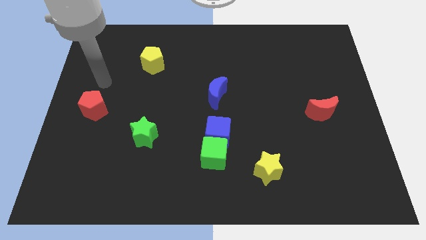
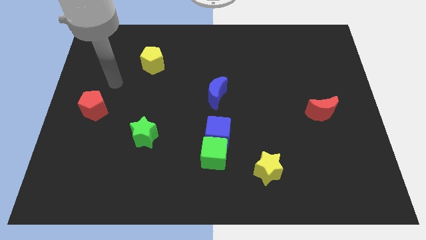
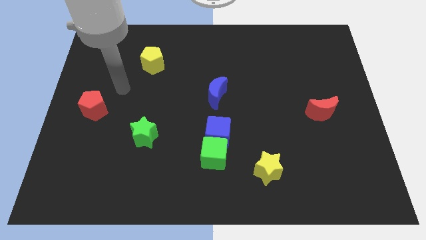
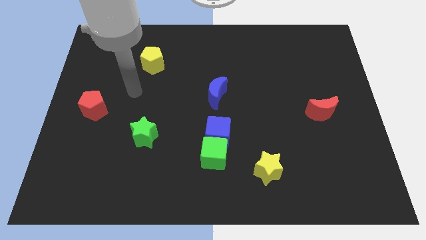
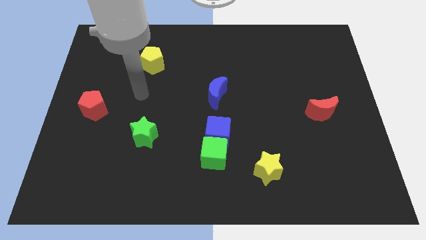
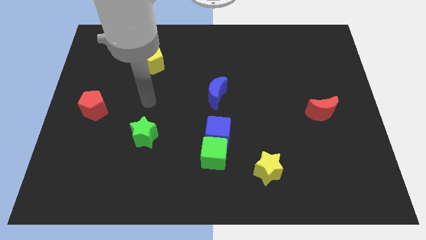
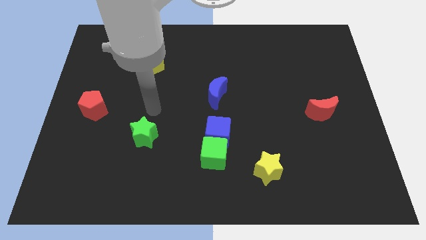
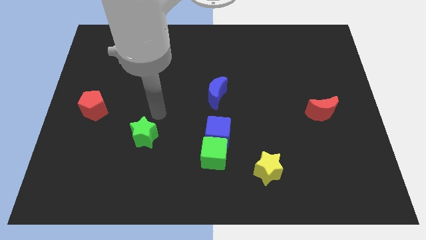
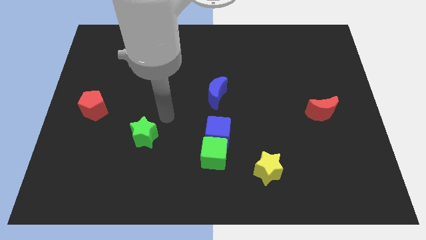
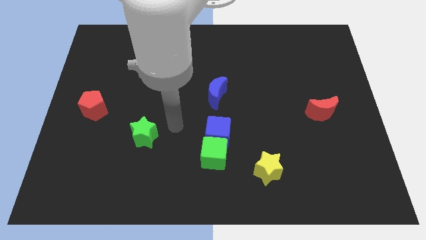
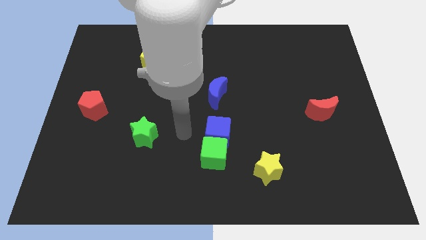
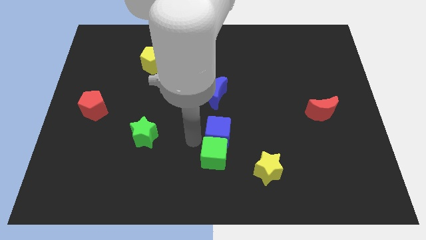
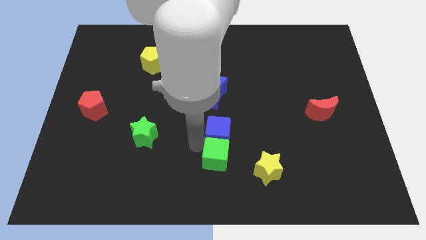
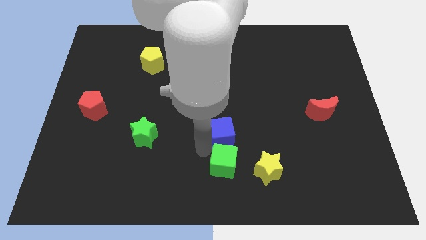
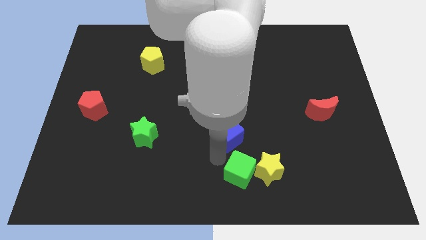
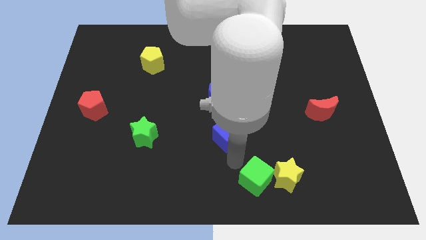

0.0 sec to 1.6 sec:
move the blue cube away from the green cube

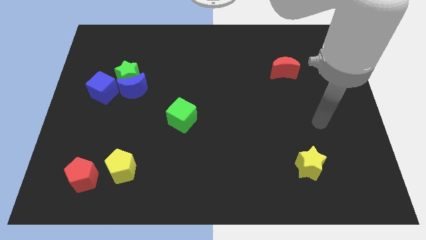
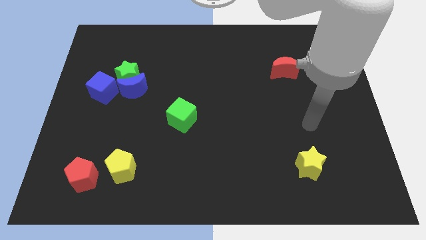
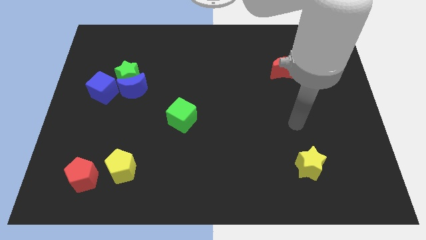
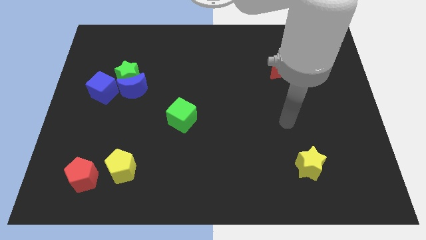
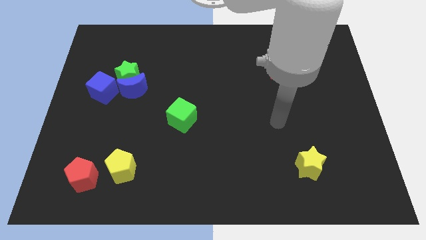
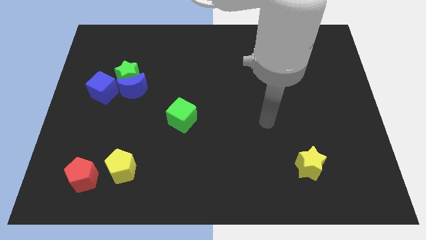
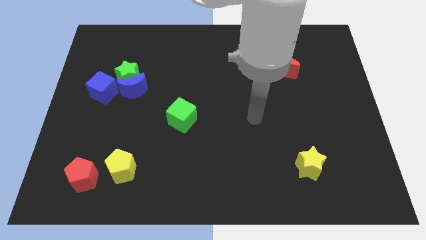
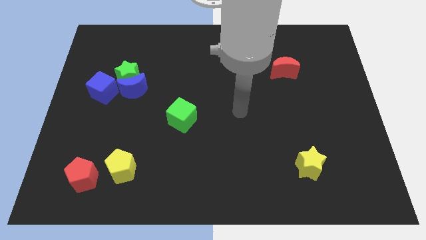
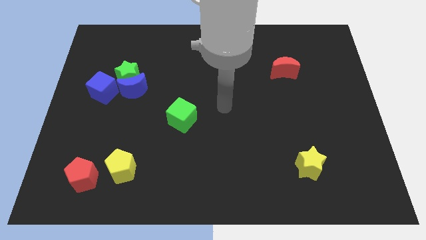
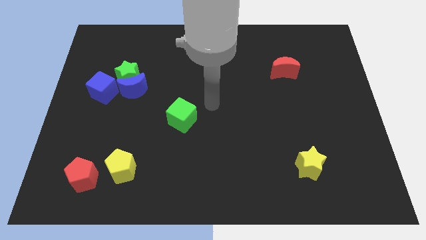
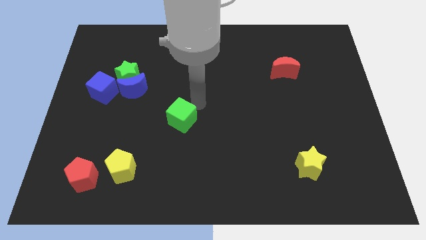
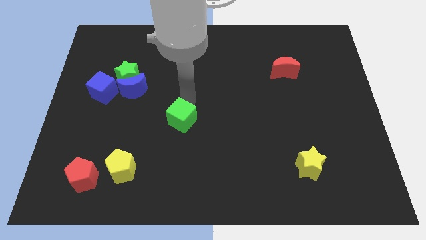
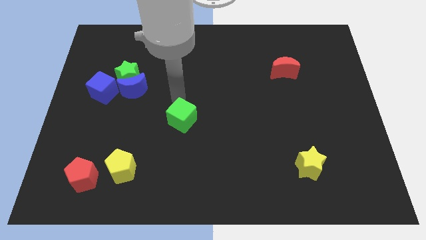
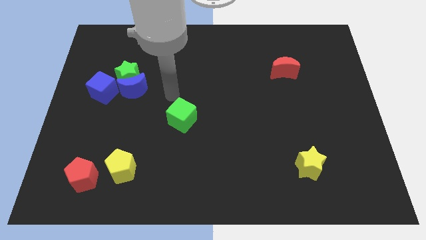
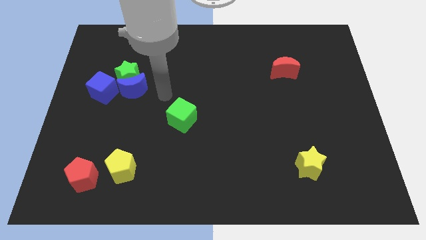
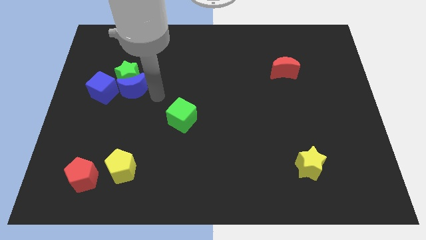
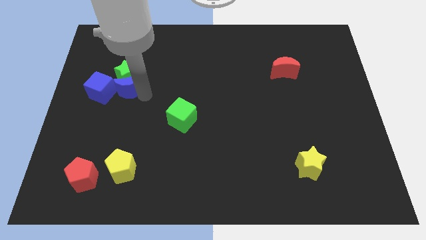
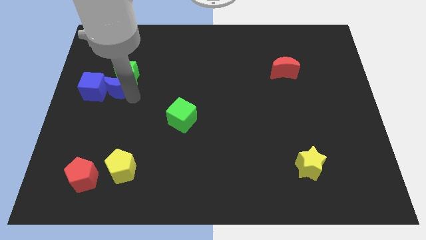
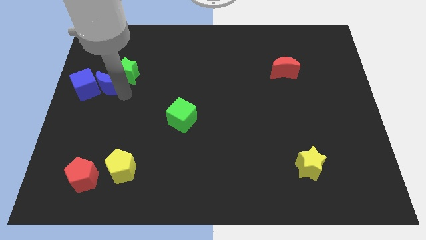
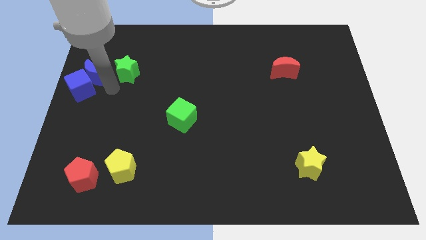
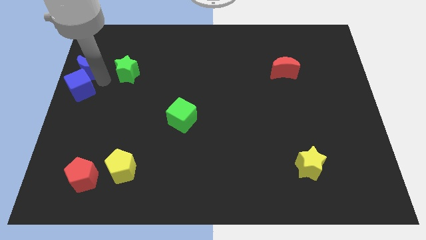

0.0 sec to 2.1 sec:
separate the green star from the blue moon and blue cube

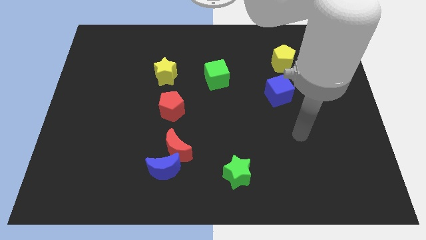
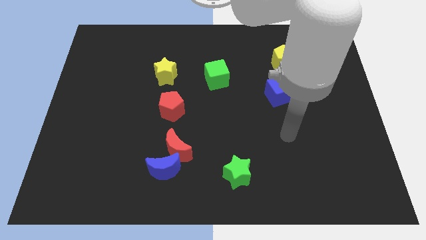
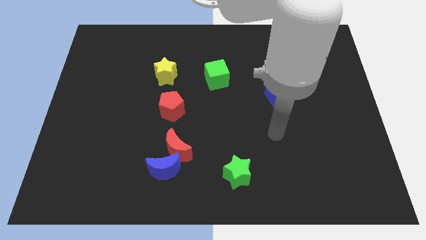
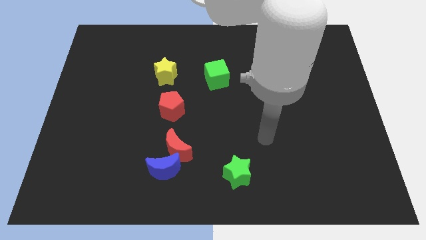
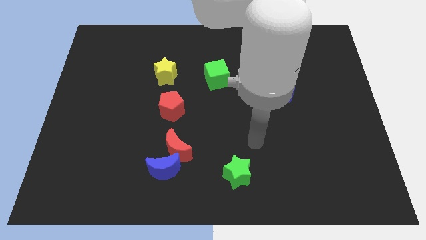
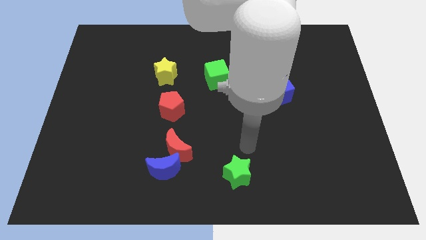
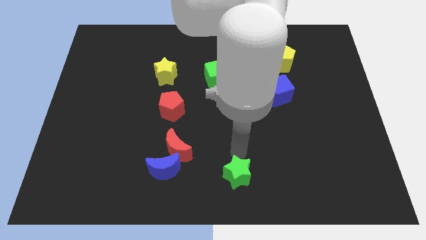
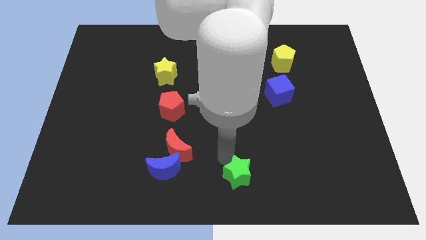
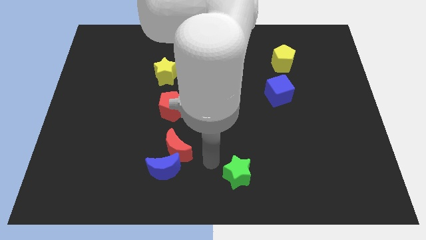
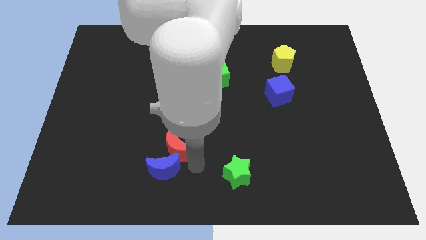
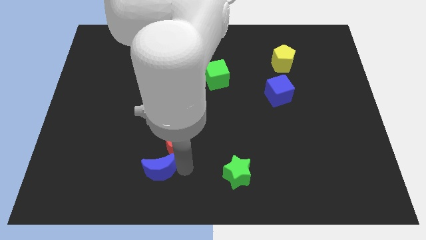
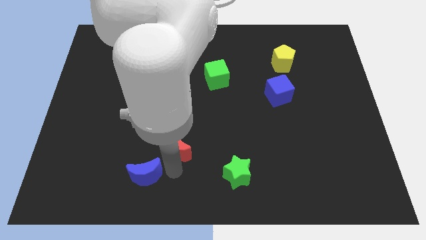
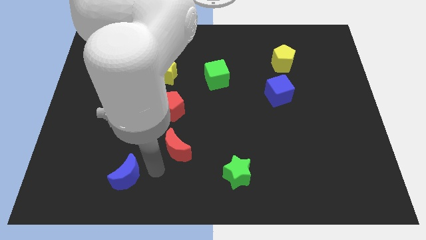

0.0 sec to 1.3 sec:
separate the red moon from the blue moon

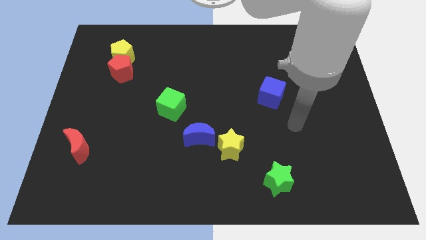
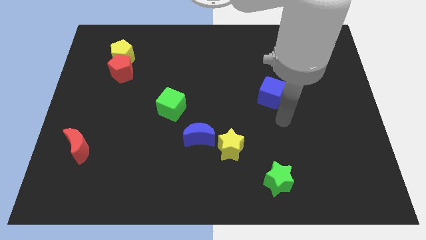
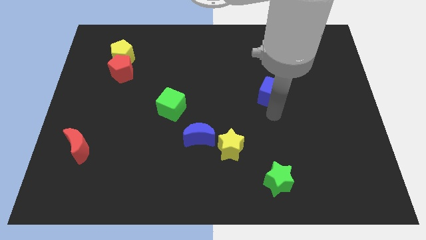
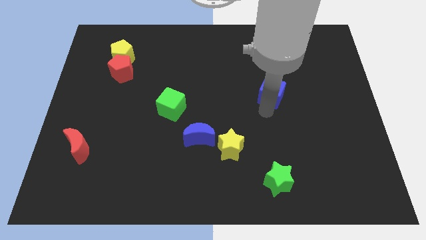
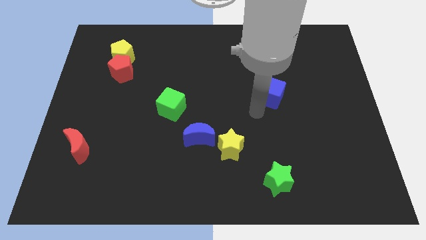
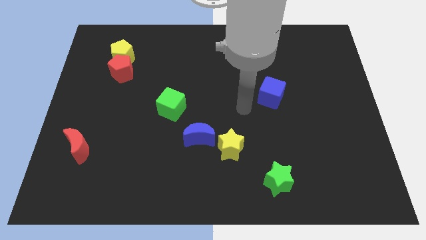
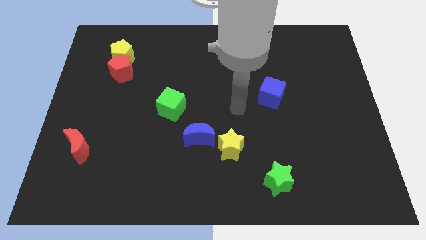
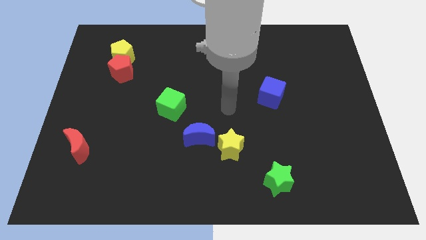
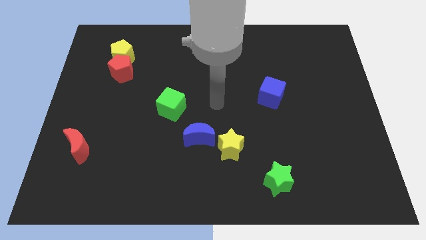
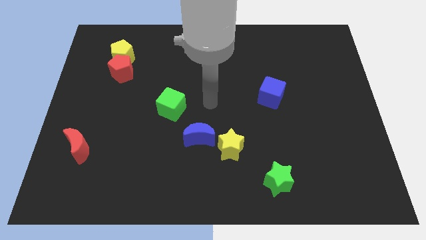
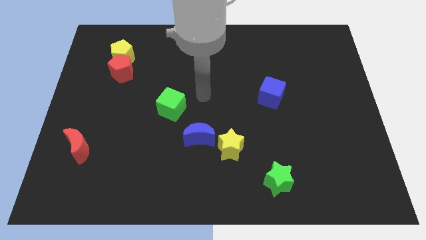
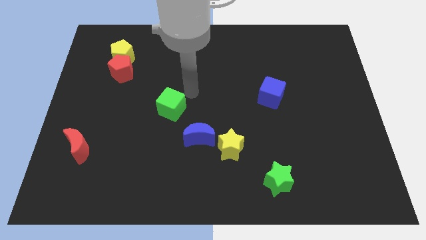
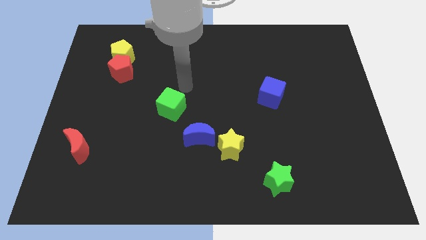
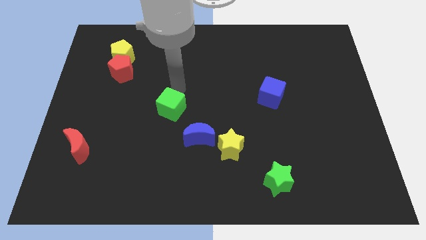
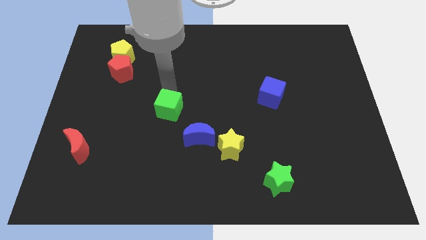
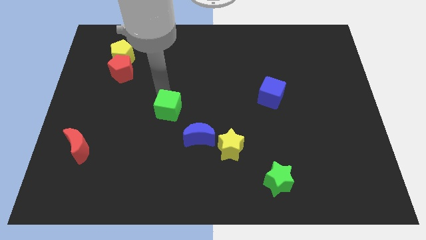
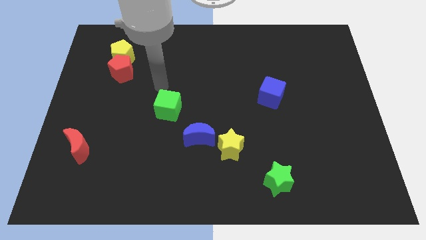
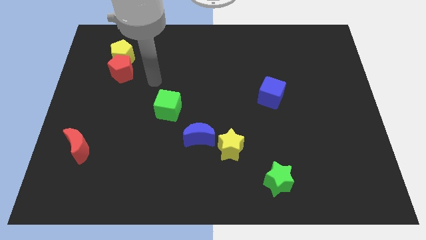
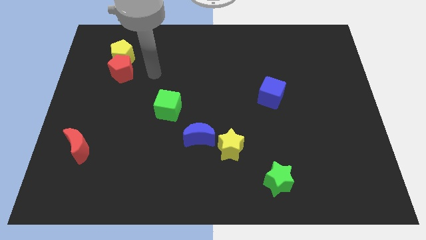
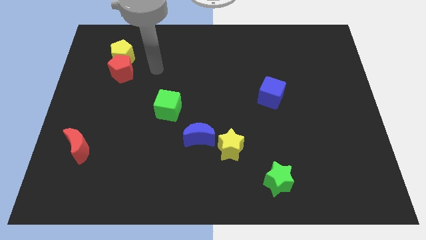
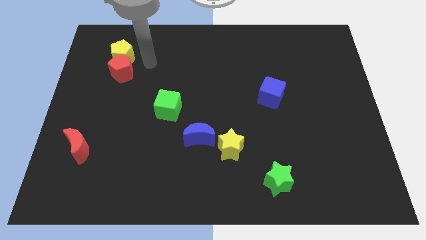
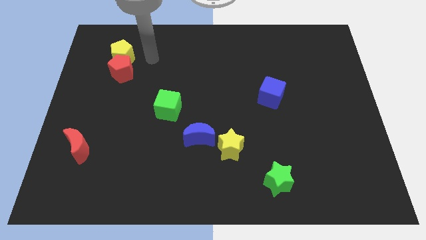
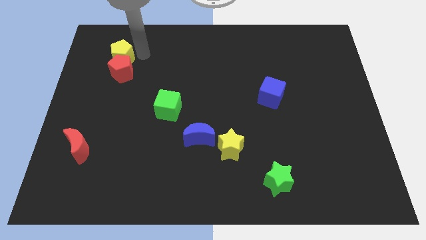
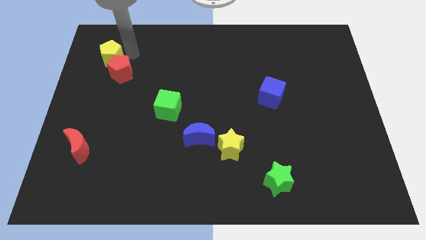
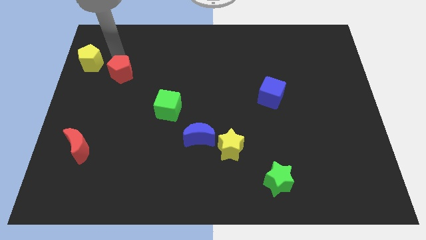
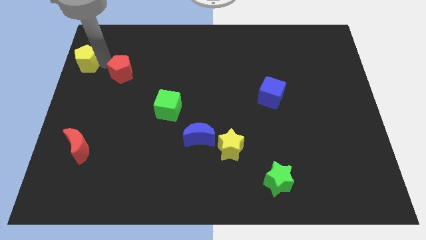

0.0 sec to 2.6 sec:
pull the red pentagon apart from the yellow pentagon

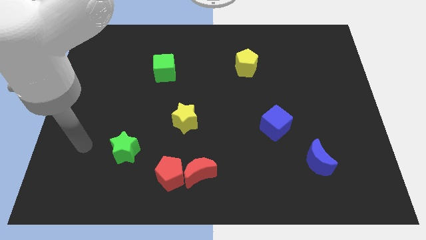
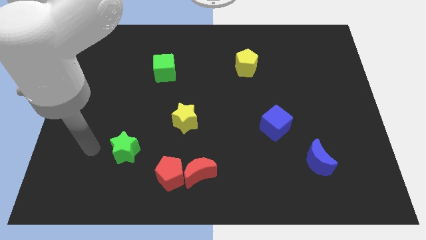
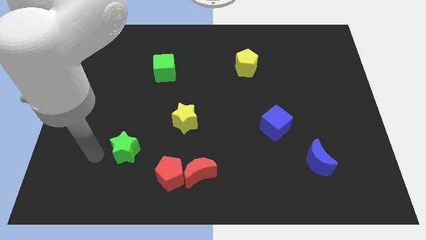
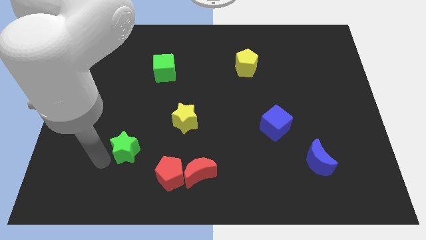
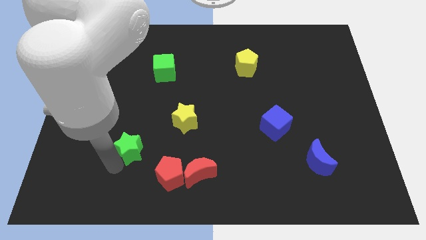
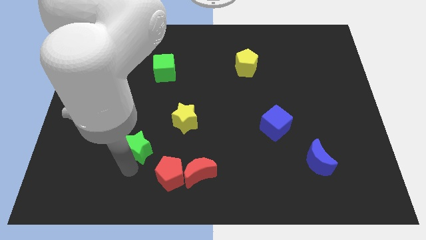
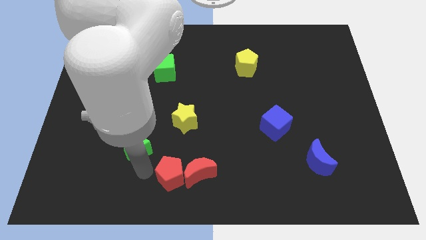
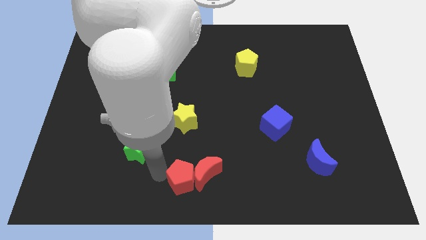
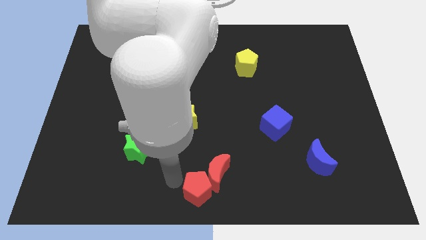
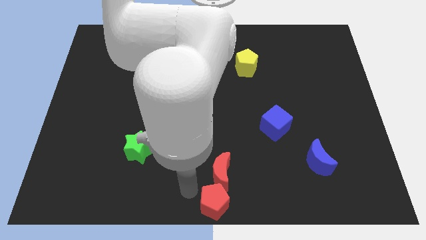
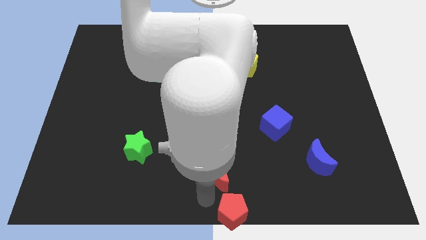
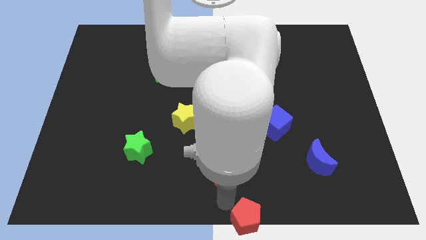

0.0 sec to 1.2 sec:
move the red moon away from the red pentagon

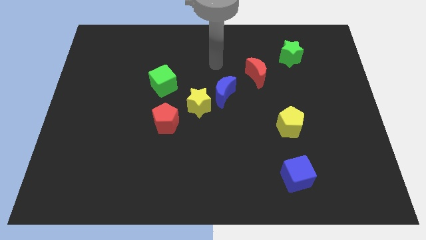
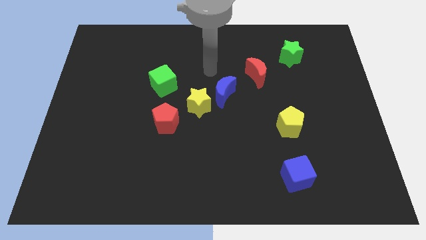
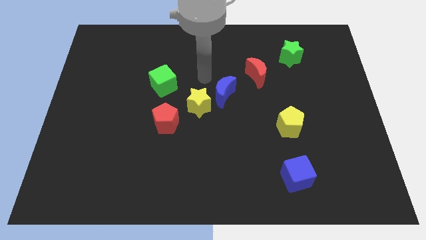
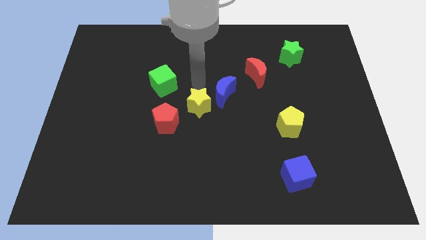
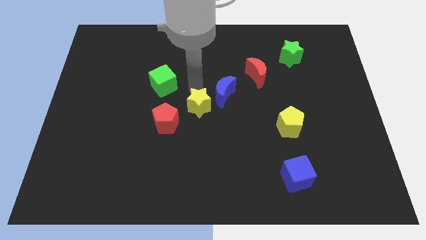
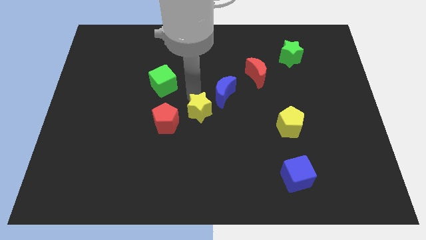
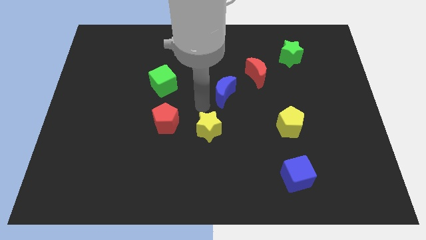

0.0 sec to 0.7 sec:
separate the blue moon from the yellow star

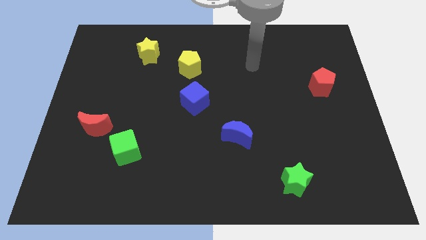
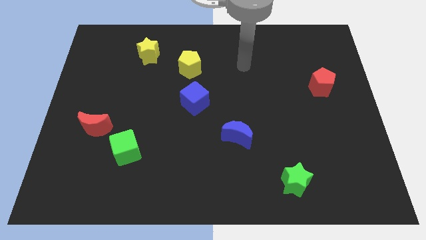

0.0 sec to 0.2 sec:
separate the red moon from the green cube
